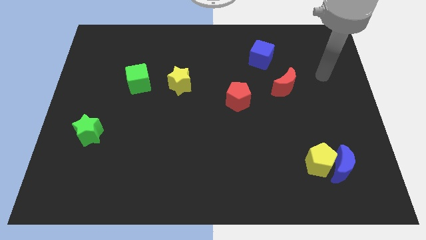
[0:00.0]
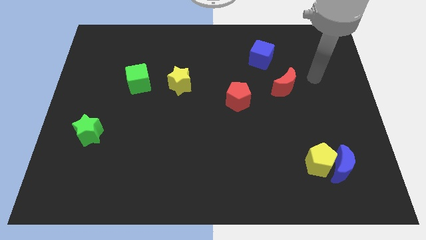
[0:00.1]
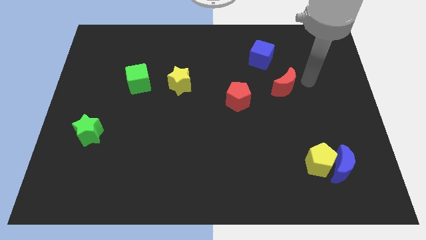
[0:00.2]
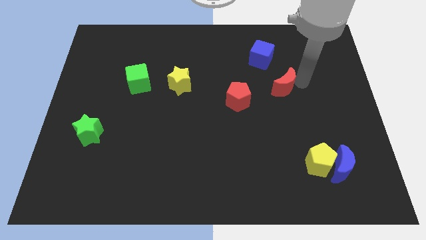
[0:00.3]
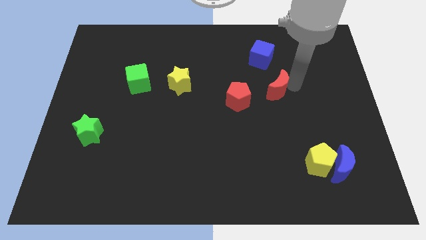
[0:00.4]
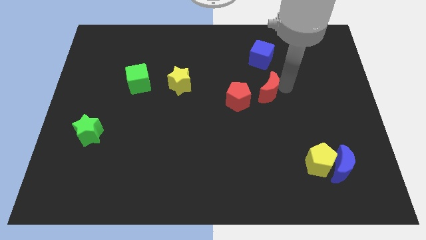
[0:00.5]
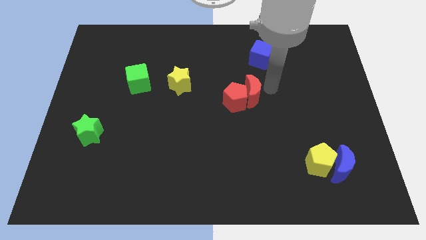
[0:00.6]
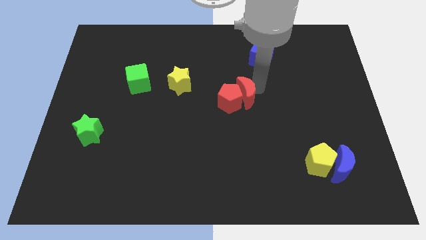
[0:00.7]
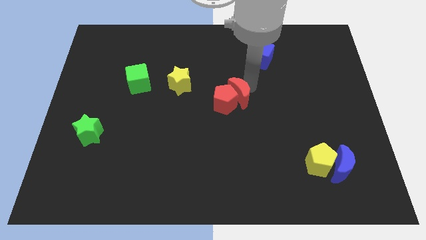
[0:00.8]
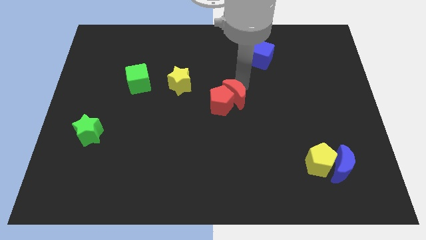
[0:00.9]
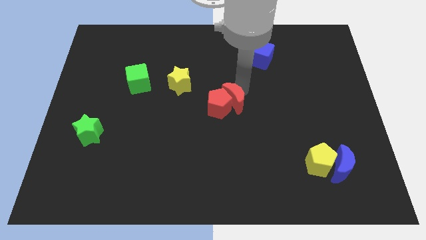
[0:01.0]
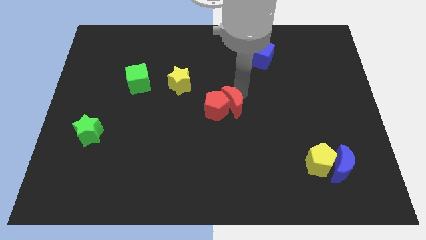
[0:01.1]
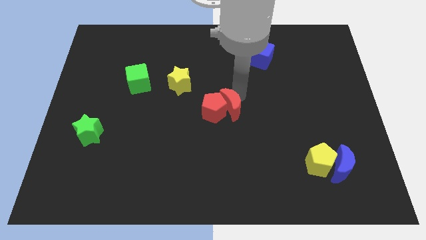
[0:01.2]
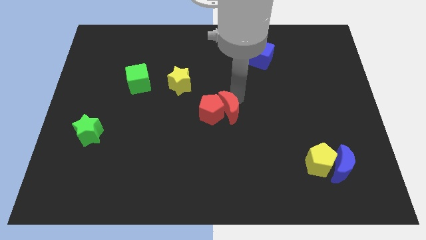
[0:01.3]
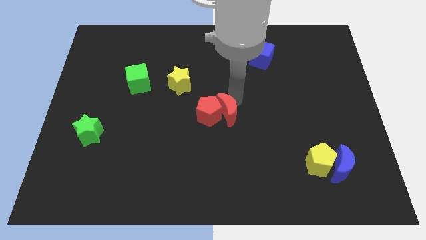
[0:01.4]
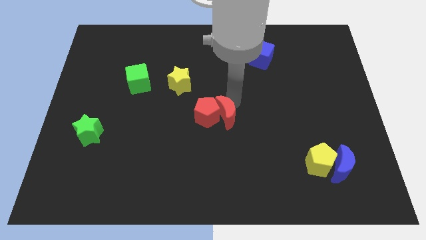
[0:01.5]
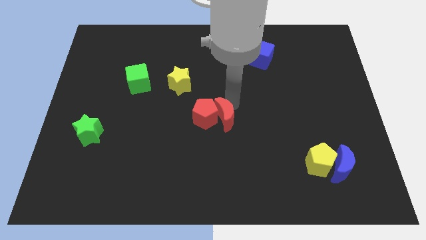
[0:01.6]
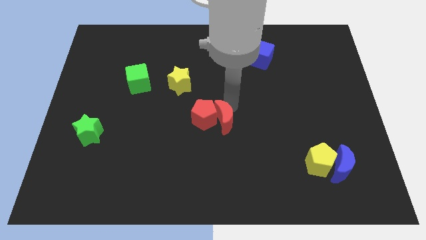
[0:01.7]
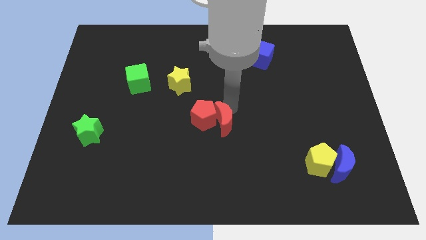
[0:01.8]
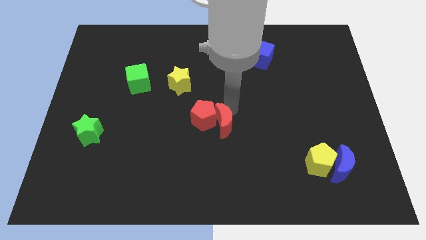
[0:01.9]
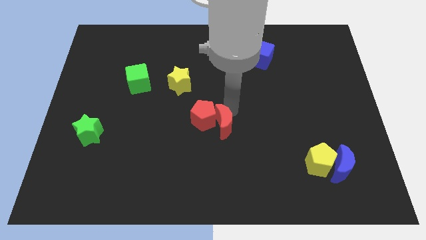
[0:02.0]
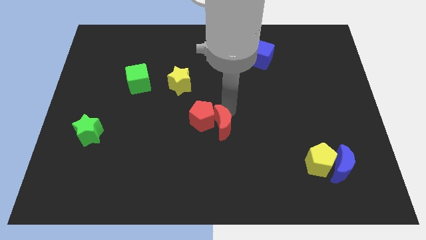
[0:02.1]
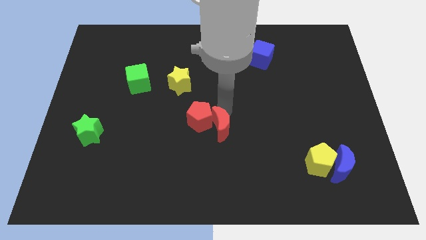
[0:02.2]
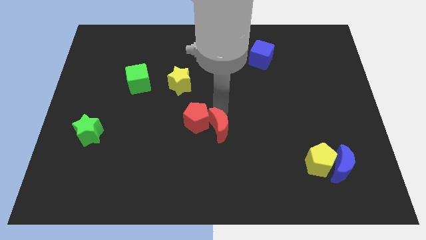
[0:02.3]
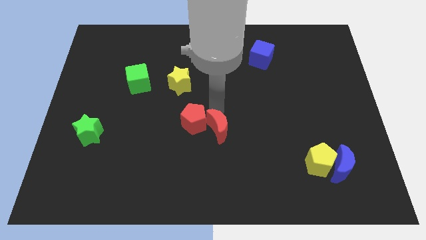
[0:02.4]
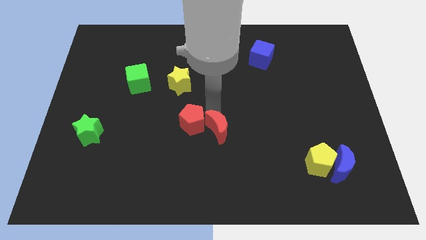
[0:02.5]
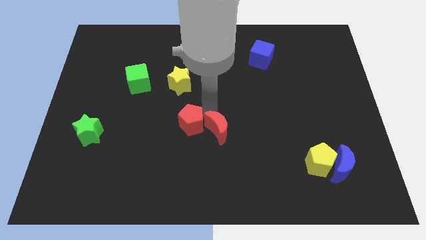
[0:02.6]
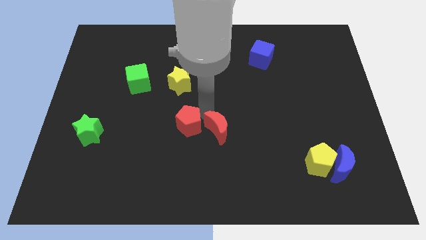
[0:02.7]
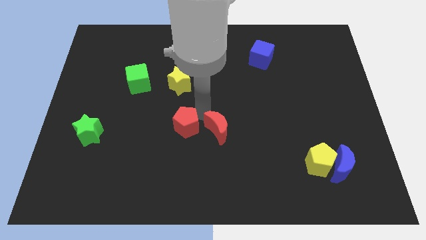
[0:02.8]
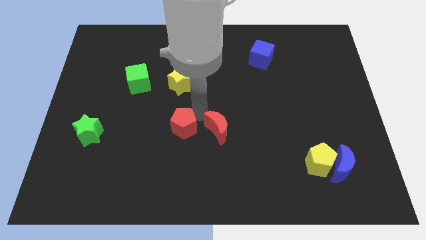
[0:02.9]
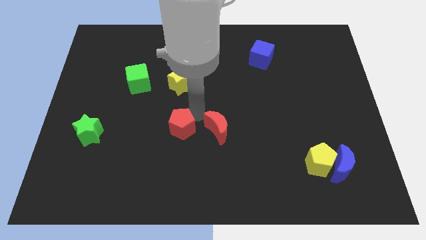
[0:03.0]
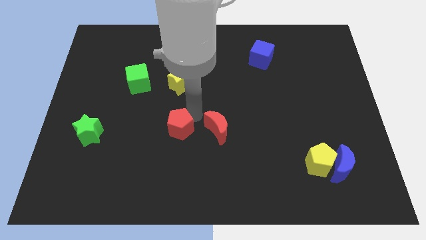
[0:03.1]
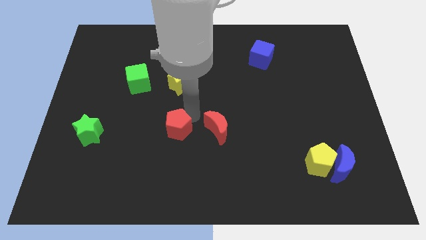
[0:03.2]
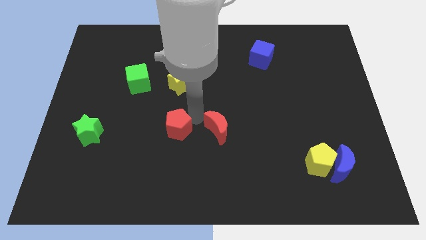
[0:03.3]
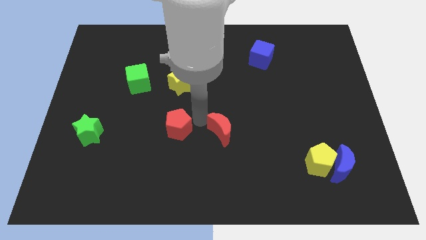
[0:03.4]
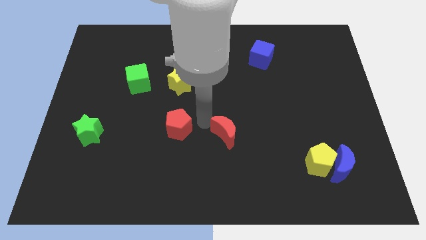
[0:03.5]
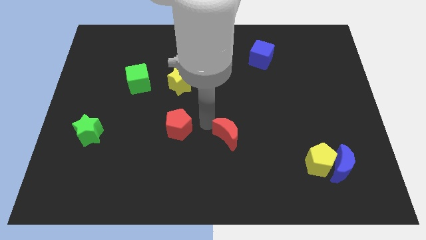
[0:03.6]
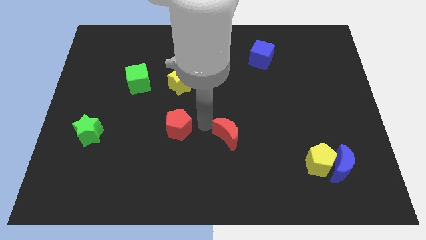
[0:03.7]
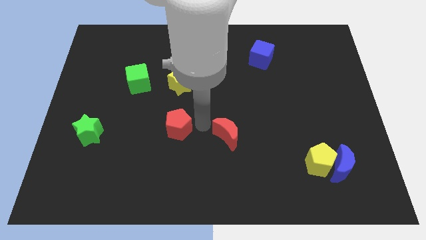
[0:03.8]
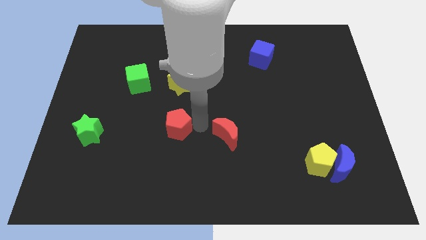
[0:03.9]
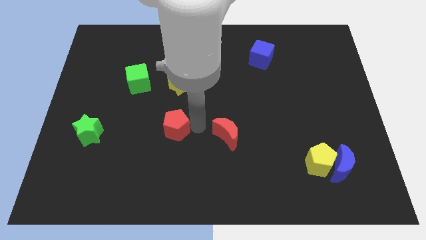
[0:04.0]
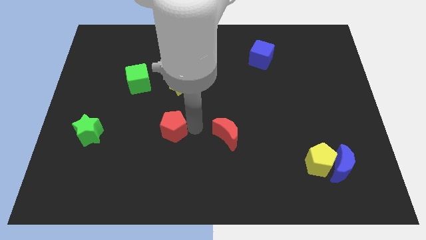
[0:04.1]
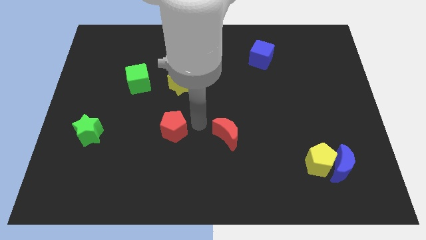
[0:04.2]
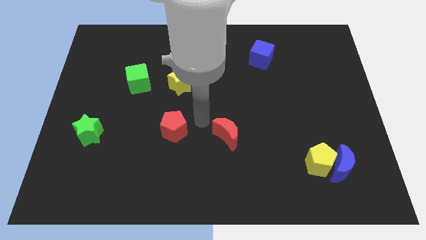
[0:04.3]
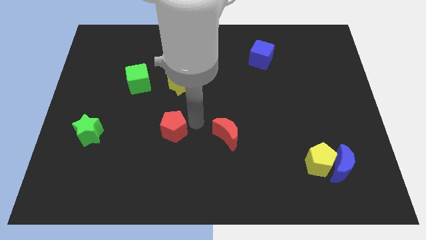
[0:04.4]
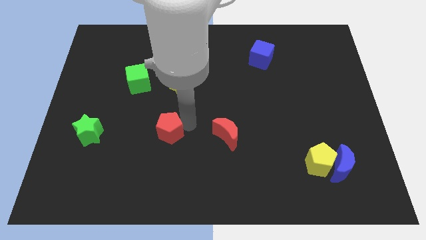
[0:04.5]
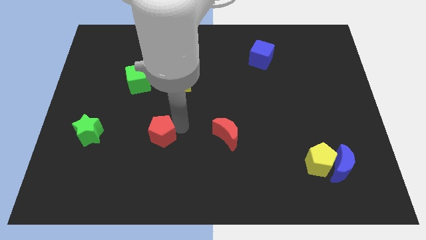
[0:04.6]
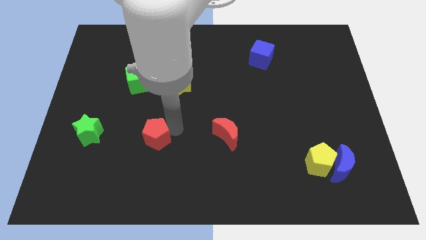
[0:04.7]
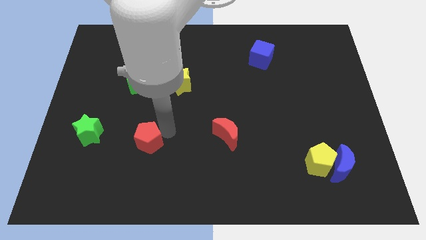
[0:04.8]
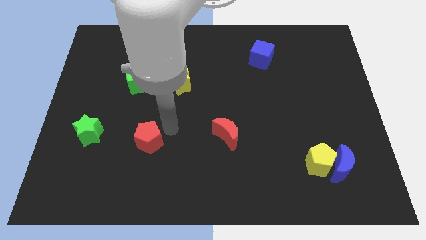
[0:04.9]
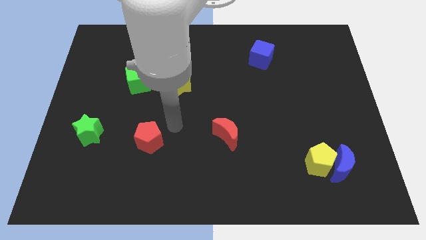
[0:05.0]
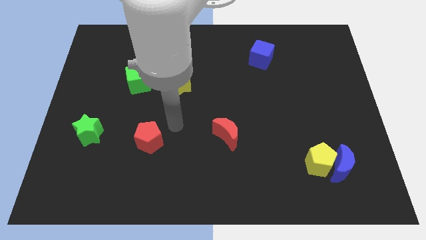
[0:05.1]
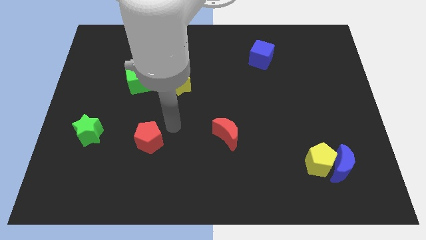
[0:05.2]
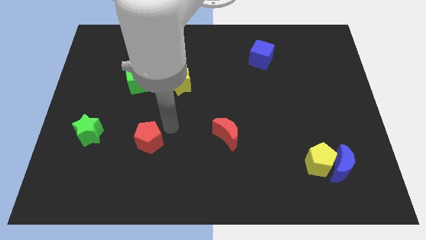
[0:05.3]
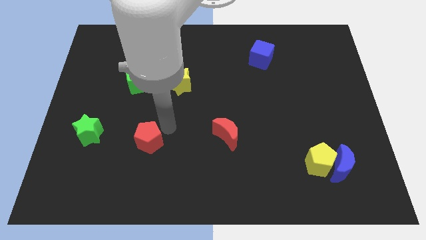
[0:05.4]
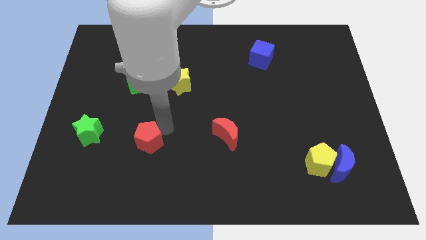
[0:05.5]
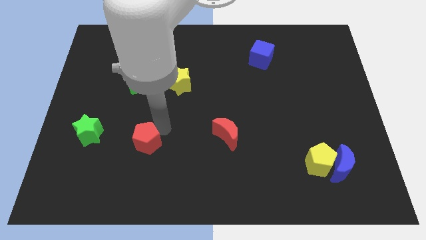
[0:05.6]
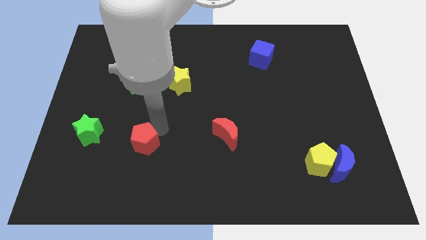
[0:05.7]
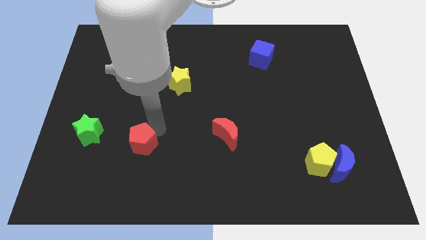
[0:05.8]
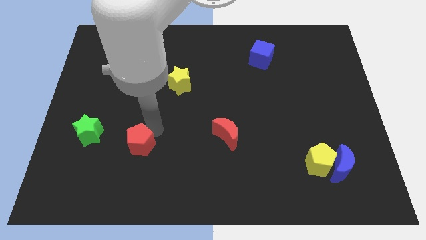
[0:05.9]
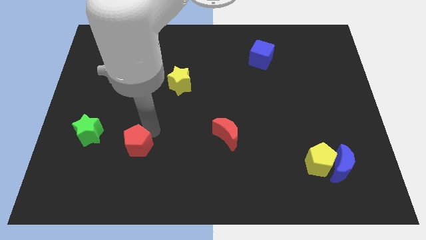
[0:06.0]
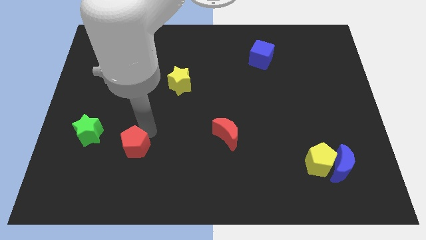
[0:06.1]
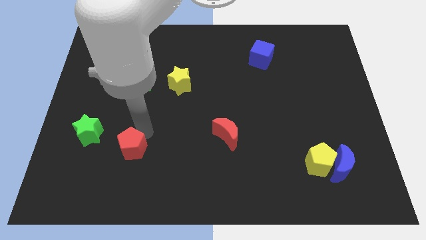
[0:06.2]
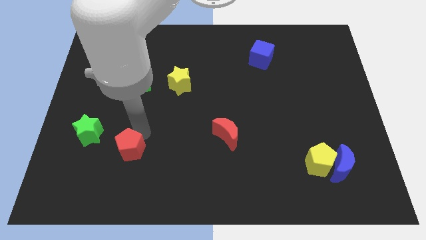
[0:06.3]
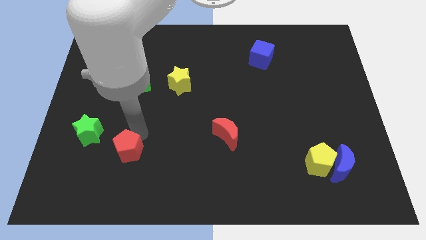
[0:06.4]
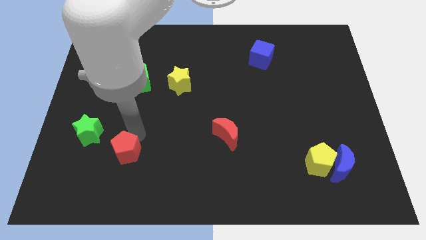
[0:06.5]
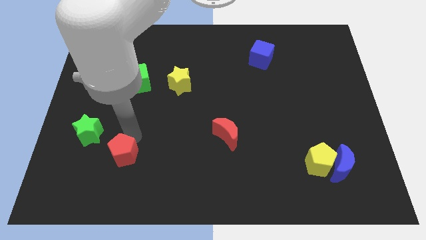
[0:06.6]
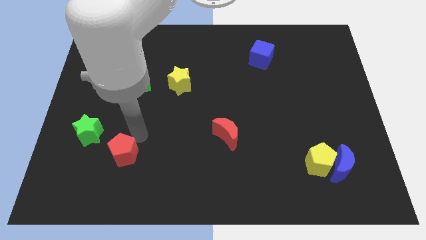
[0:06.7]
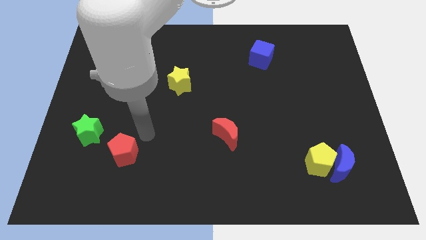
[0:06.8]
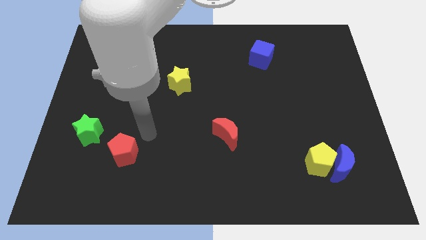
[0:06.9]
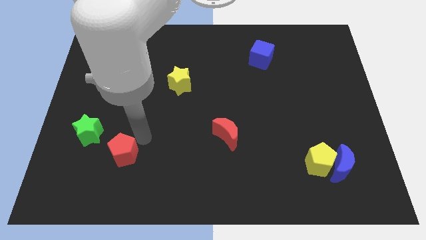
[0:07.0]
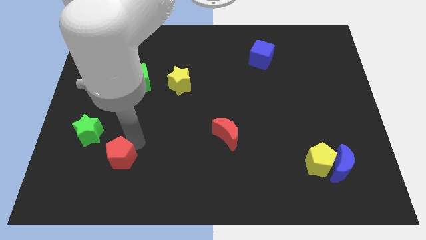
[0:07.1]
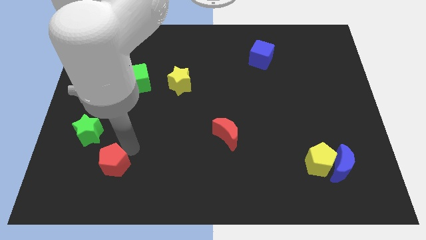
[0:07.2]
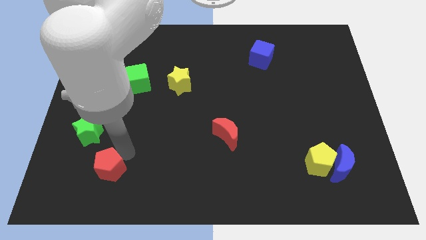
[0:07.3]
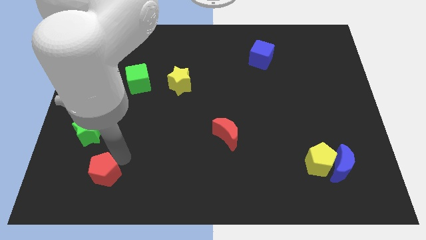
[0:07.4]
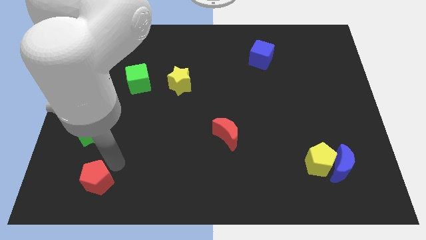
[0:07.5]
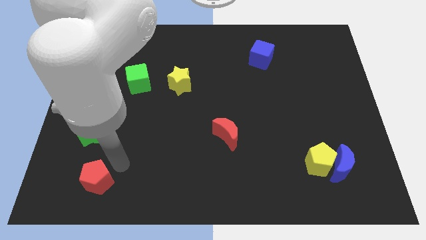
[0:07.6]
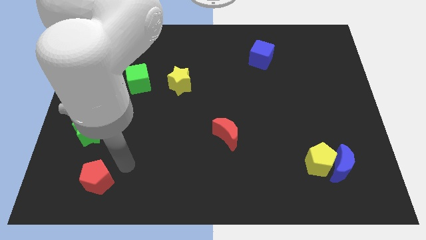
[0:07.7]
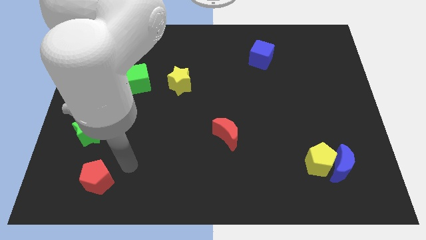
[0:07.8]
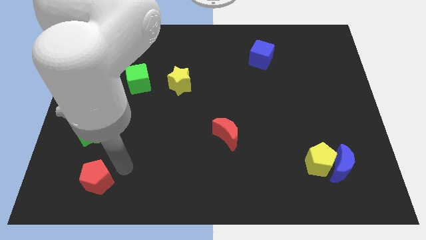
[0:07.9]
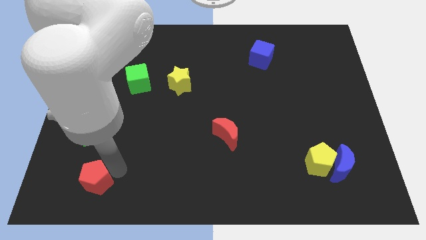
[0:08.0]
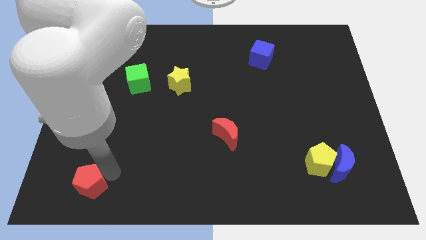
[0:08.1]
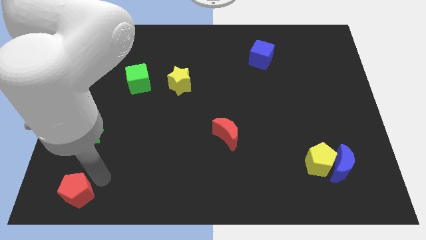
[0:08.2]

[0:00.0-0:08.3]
push the red pentagon to the bottom left corner
